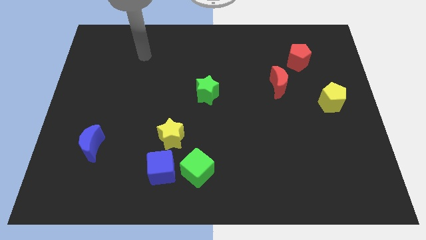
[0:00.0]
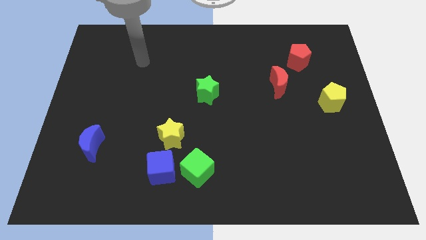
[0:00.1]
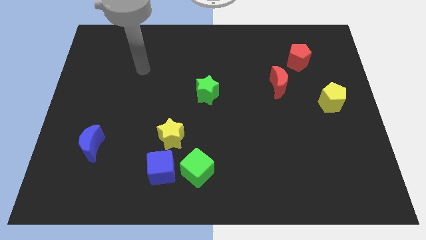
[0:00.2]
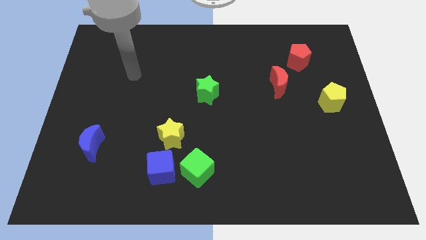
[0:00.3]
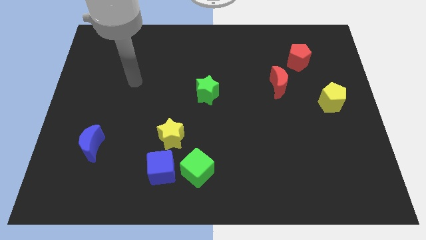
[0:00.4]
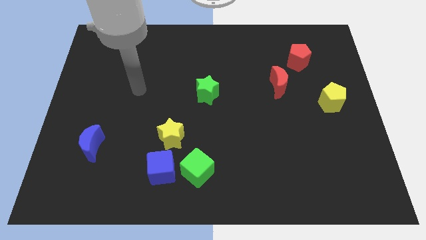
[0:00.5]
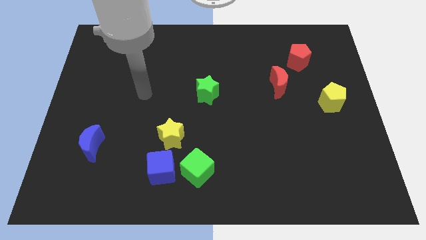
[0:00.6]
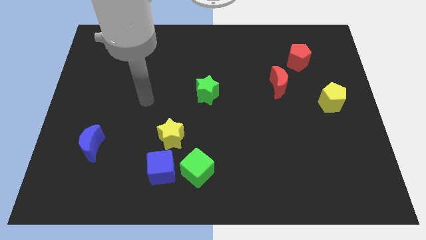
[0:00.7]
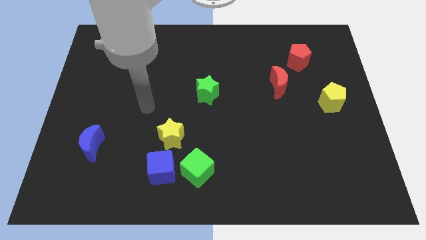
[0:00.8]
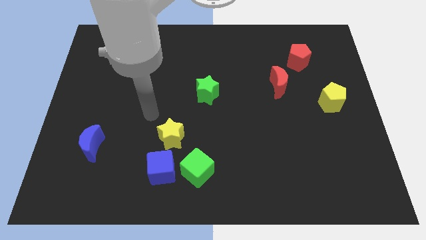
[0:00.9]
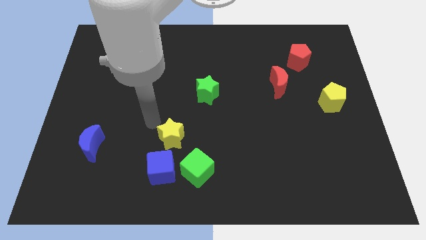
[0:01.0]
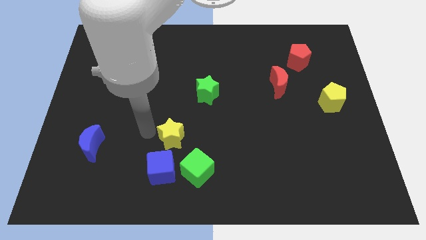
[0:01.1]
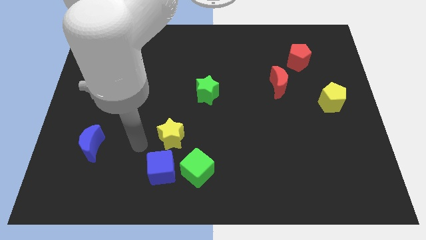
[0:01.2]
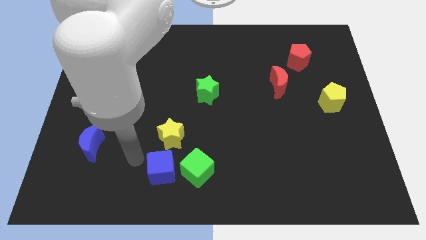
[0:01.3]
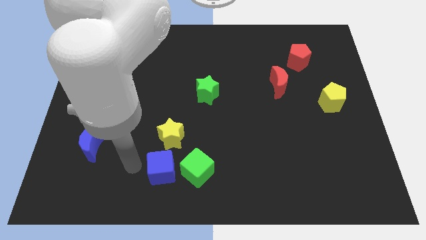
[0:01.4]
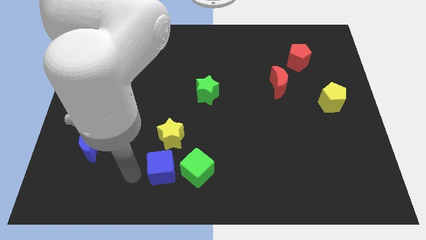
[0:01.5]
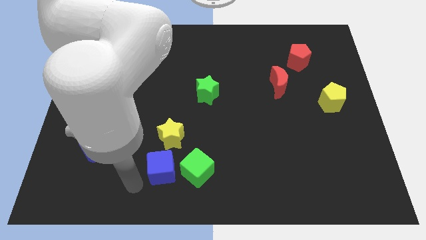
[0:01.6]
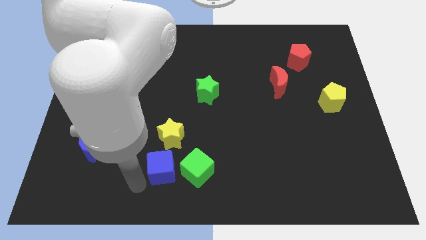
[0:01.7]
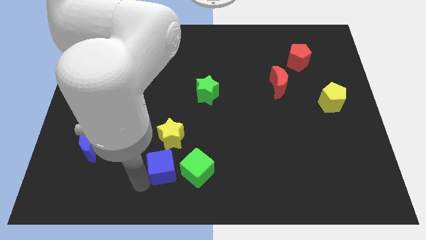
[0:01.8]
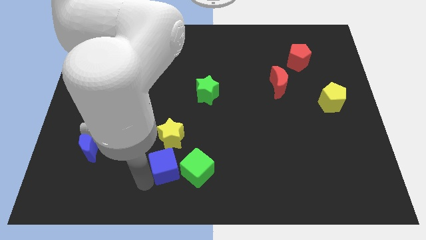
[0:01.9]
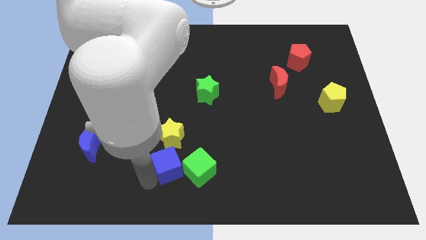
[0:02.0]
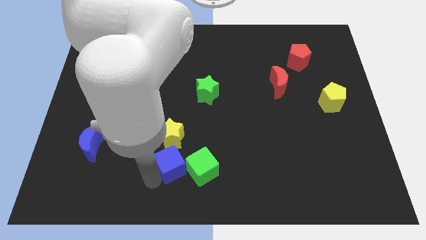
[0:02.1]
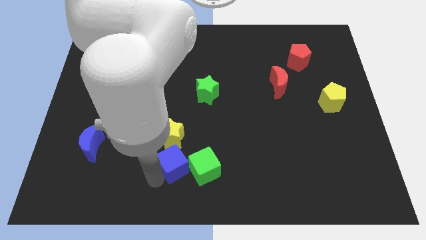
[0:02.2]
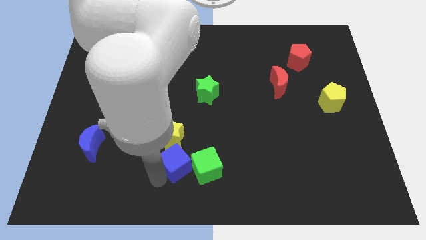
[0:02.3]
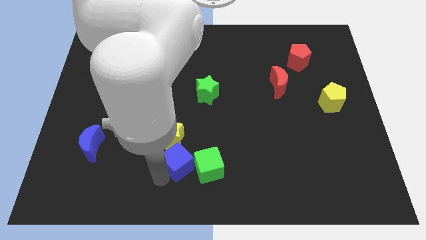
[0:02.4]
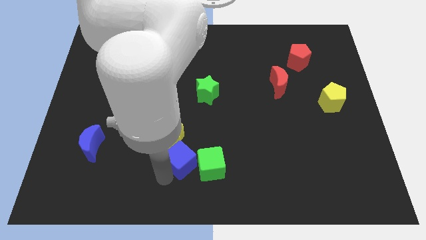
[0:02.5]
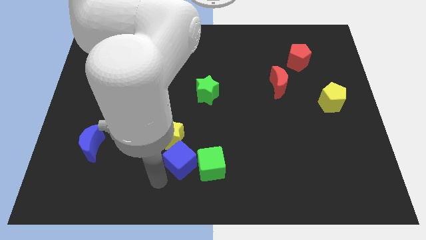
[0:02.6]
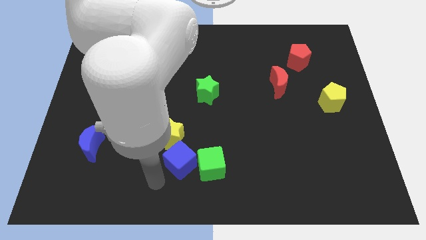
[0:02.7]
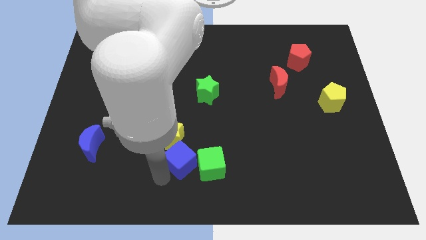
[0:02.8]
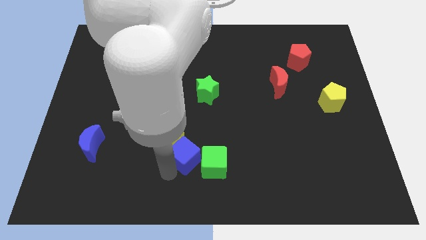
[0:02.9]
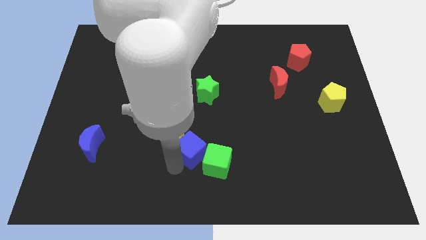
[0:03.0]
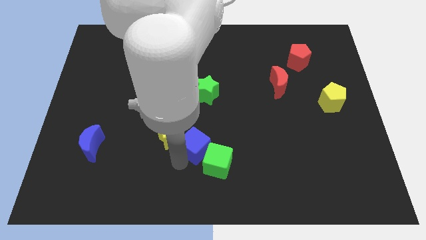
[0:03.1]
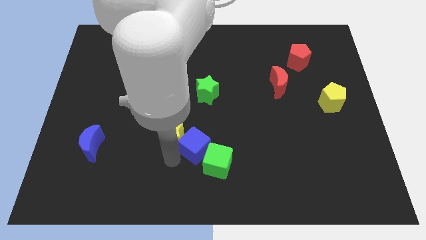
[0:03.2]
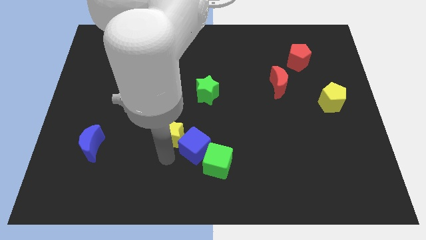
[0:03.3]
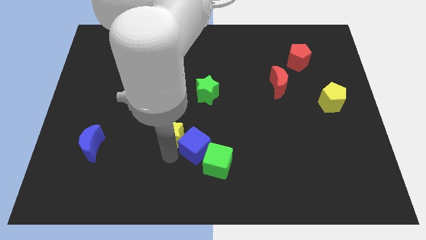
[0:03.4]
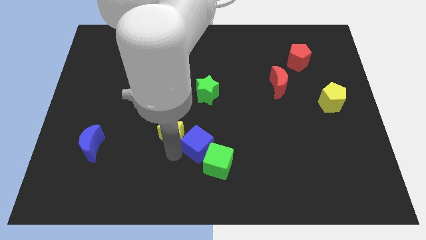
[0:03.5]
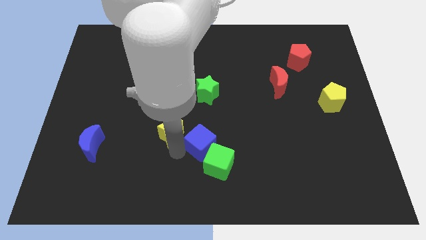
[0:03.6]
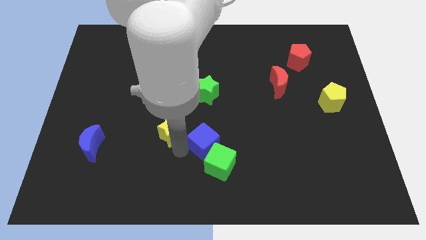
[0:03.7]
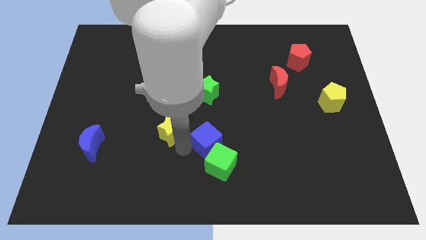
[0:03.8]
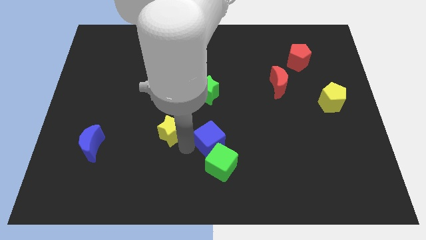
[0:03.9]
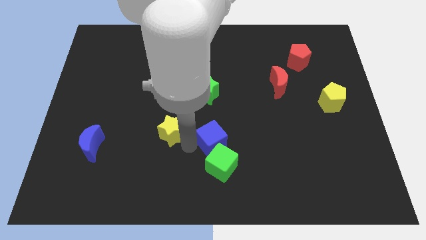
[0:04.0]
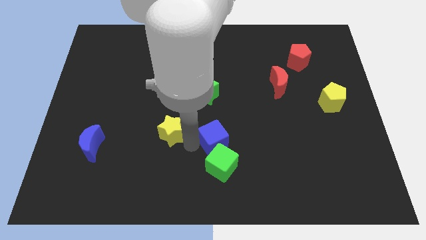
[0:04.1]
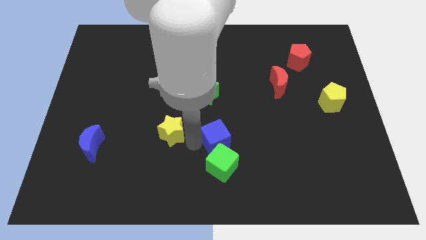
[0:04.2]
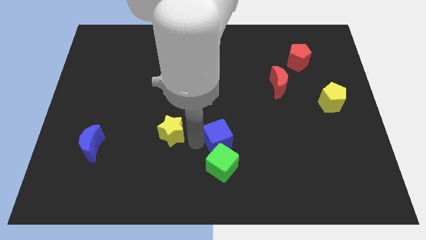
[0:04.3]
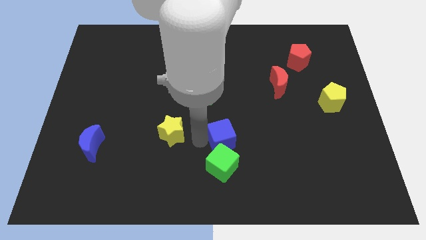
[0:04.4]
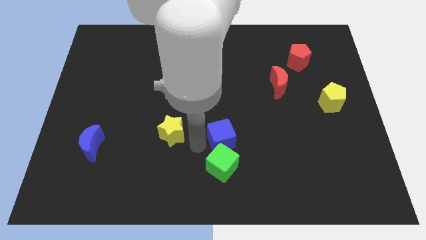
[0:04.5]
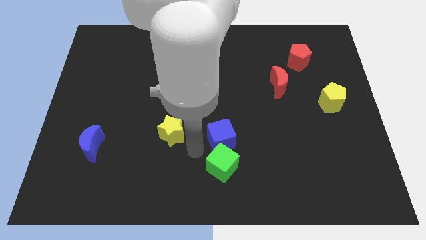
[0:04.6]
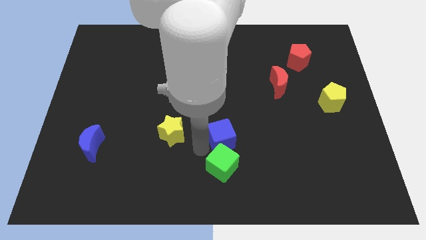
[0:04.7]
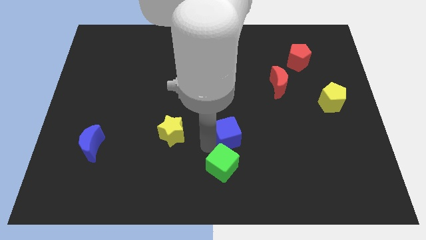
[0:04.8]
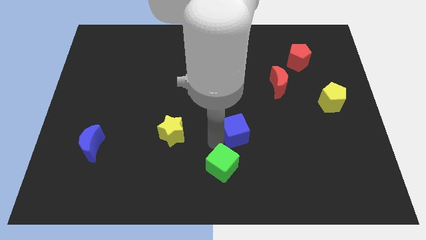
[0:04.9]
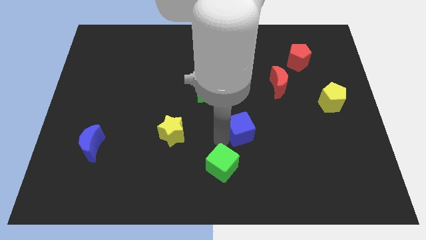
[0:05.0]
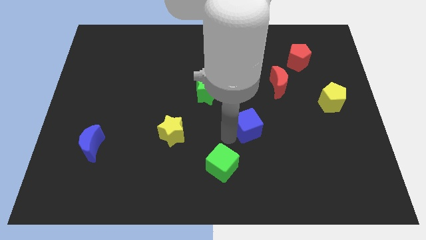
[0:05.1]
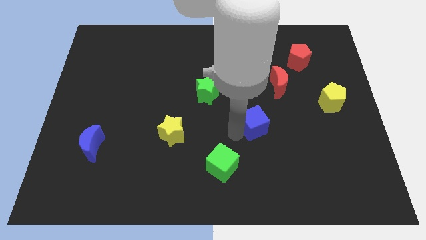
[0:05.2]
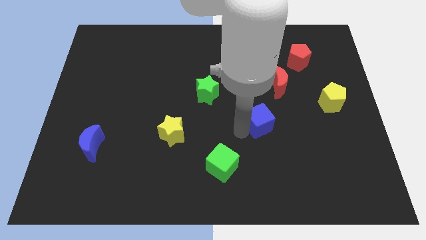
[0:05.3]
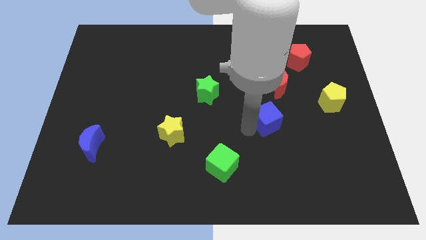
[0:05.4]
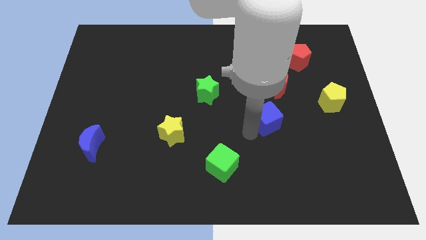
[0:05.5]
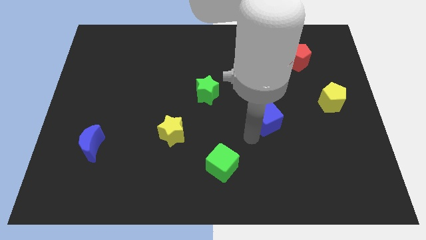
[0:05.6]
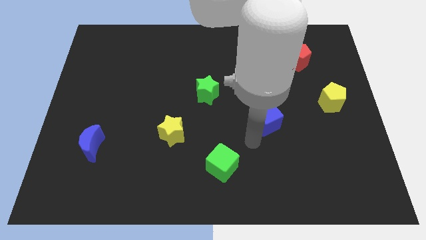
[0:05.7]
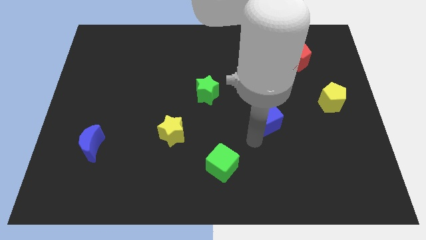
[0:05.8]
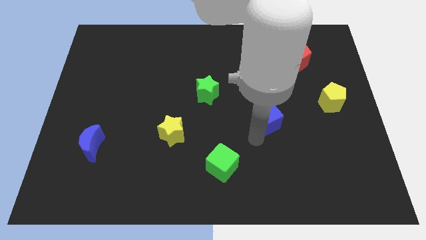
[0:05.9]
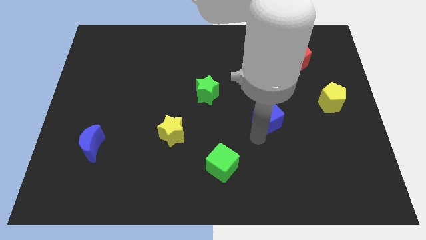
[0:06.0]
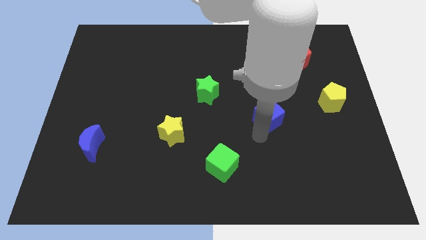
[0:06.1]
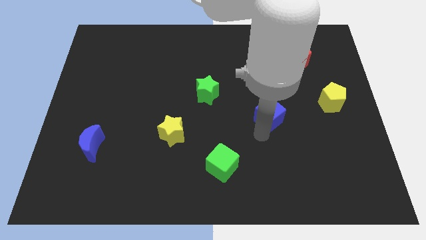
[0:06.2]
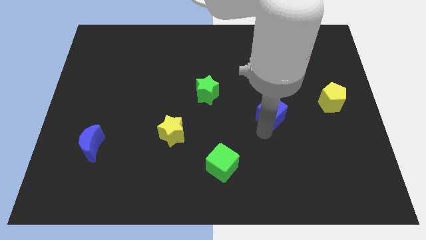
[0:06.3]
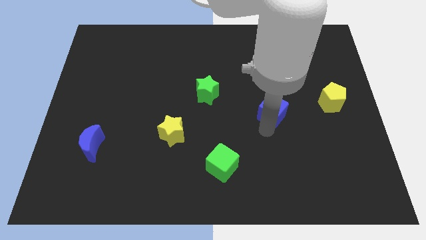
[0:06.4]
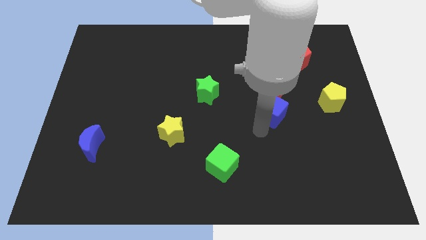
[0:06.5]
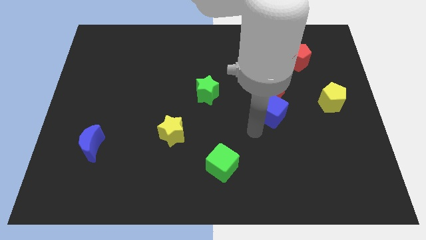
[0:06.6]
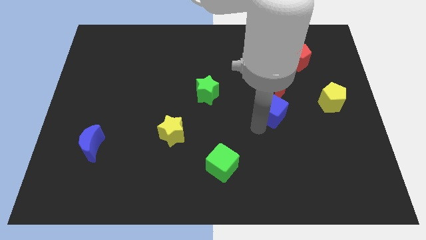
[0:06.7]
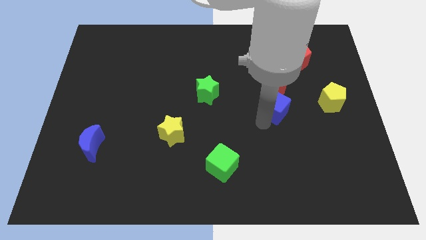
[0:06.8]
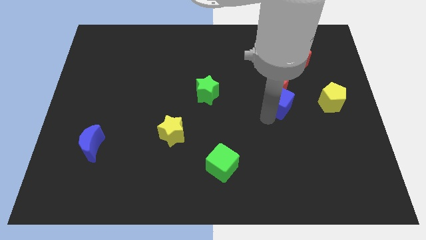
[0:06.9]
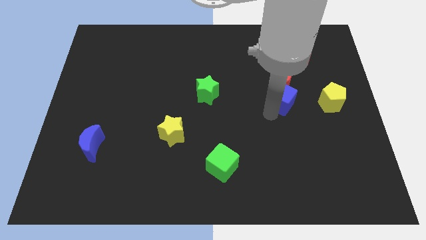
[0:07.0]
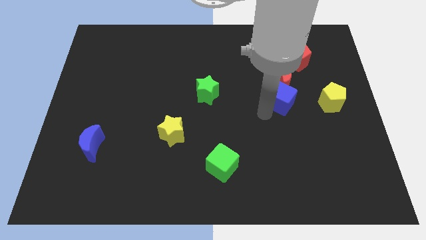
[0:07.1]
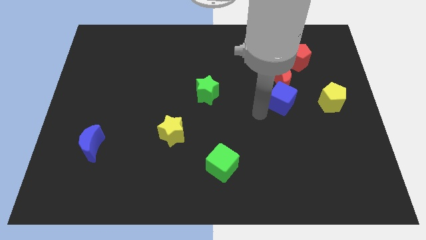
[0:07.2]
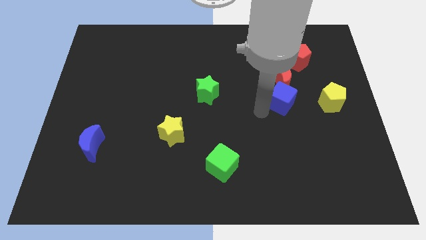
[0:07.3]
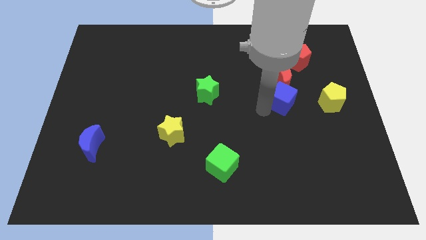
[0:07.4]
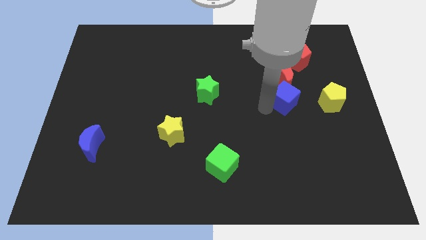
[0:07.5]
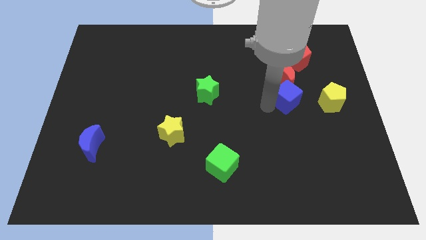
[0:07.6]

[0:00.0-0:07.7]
push the blue cube to the bottom side of the red pentagon
